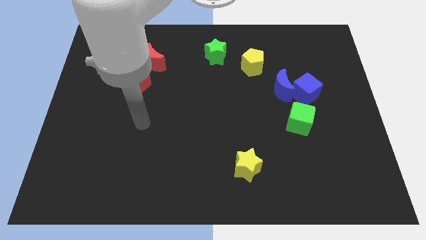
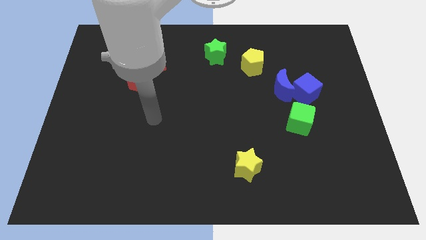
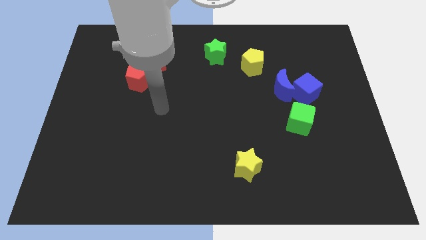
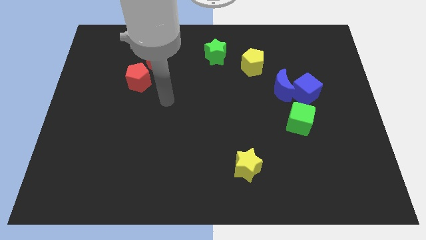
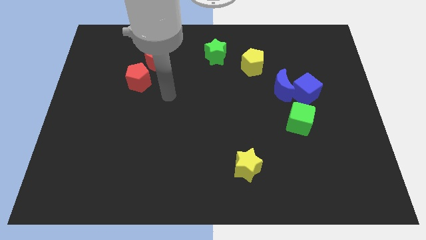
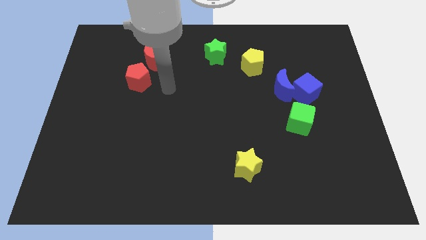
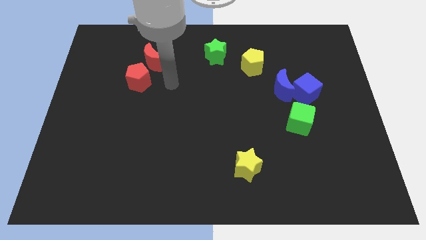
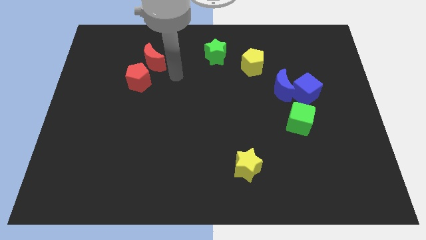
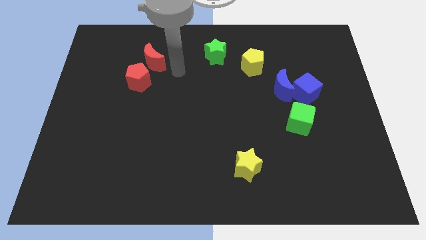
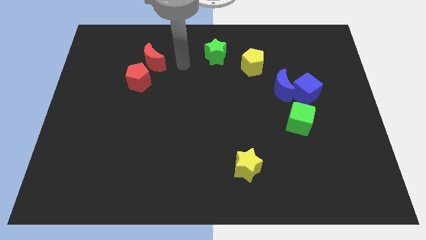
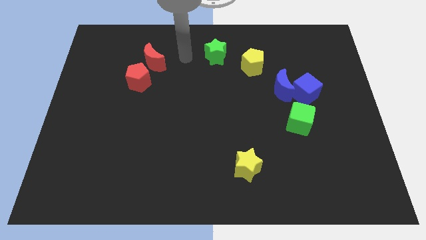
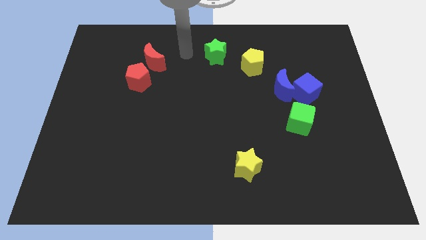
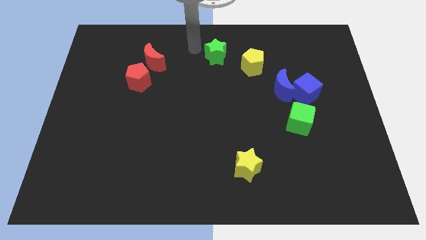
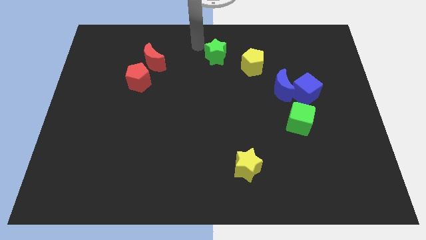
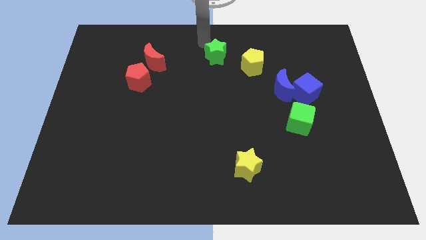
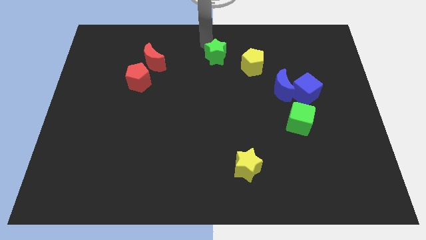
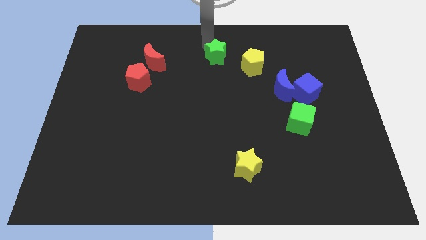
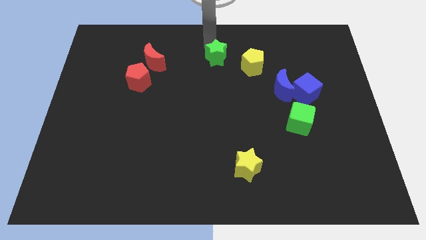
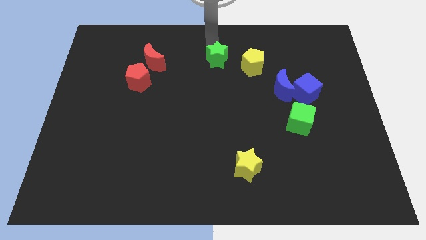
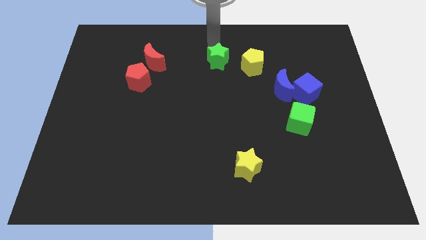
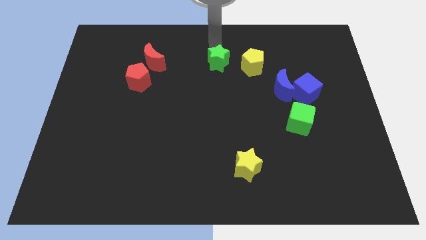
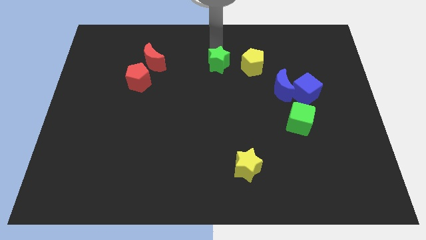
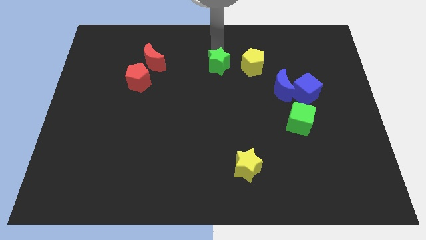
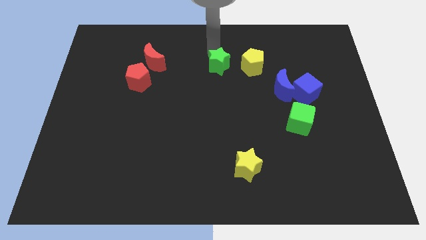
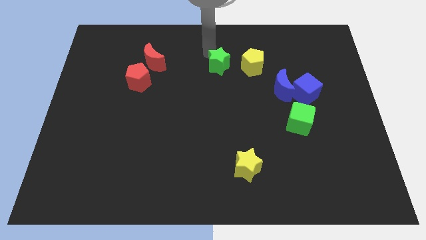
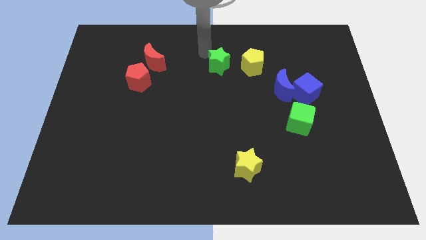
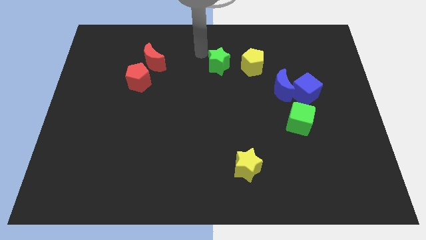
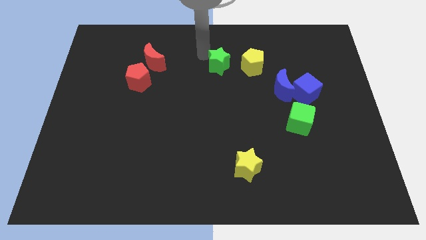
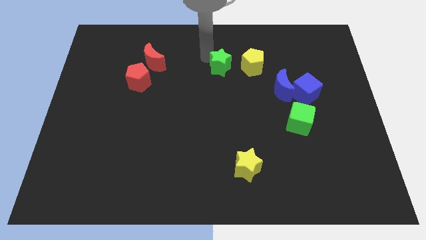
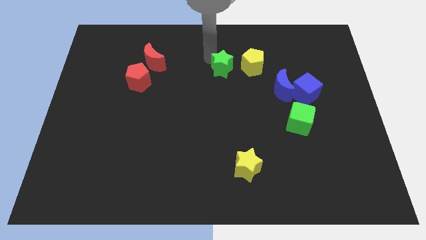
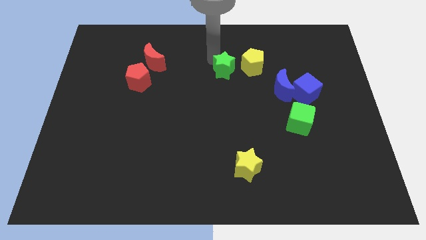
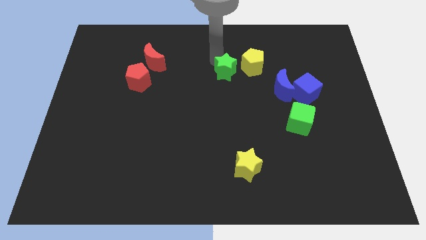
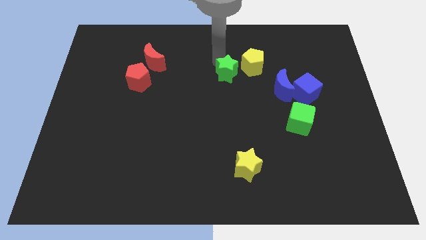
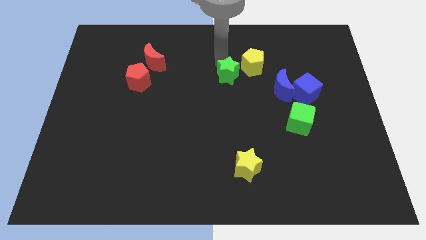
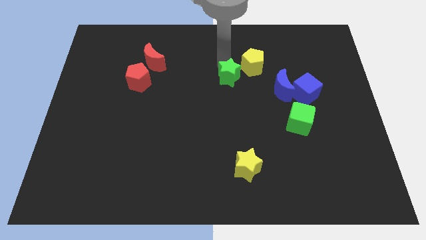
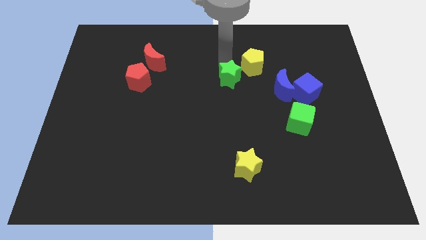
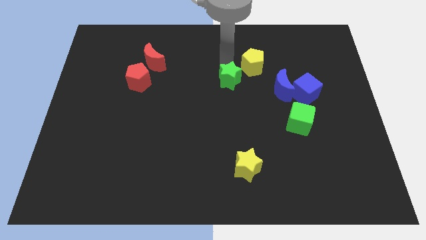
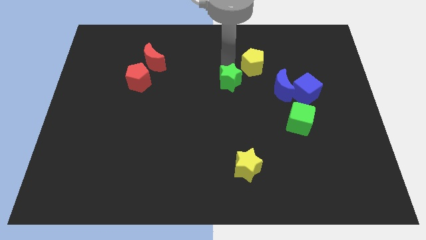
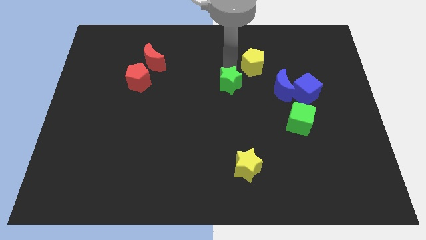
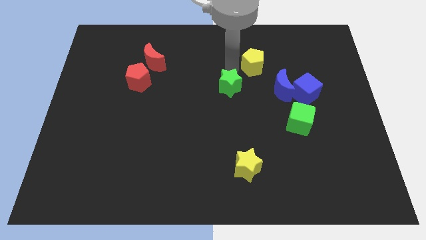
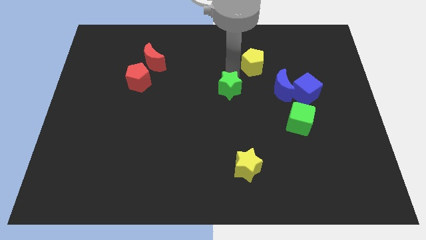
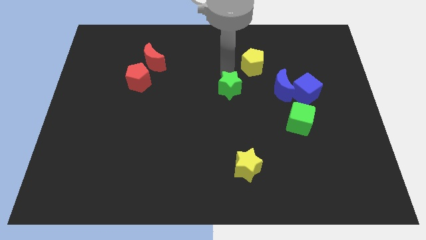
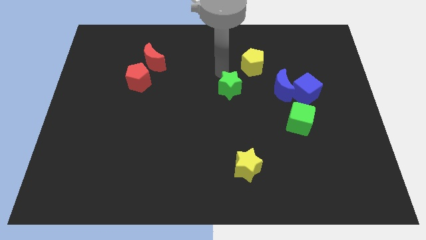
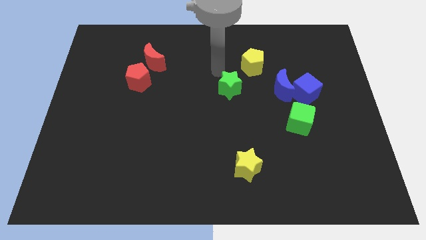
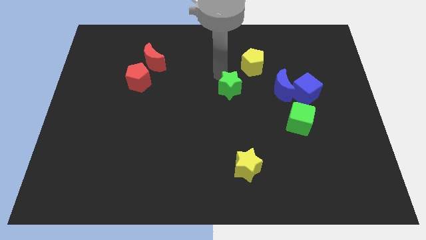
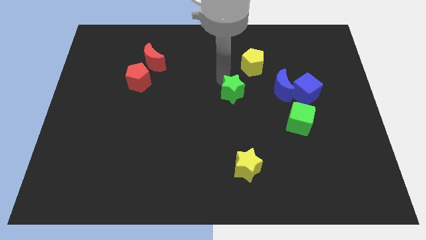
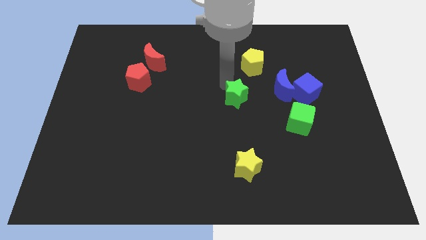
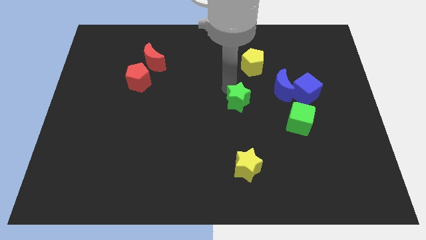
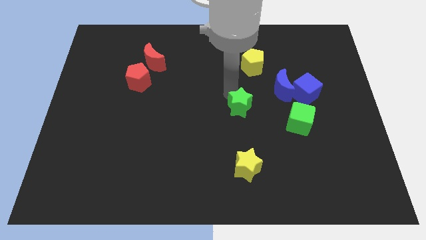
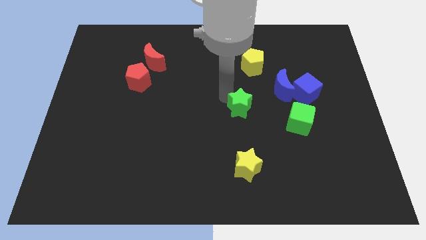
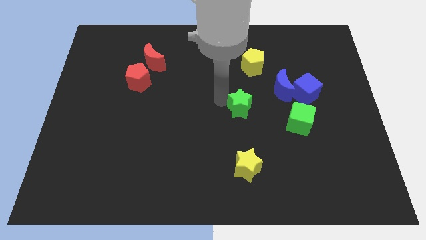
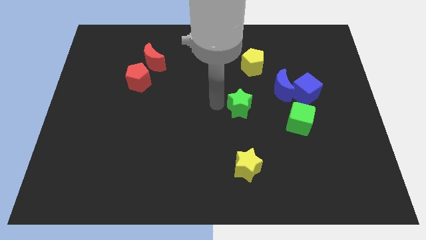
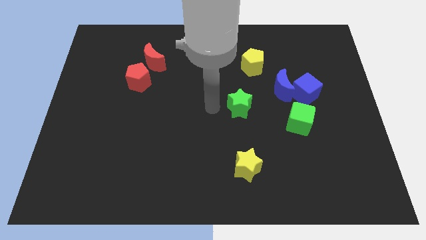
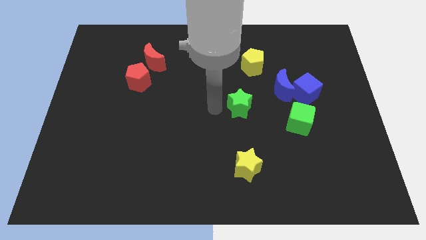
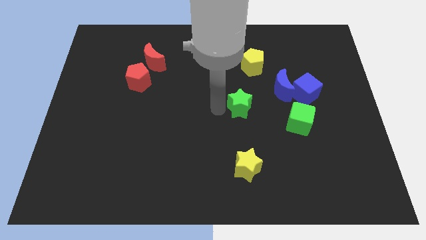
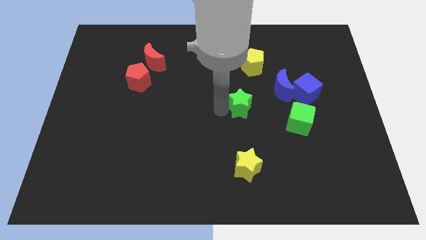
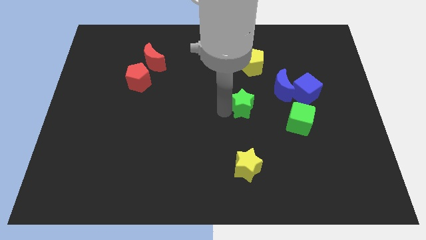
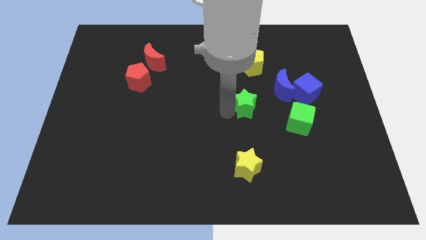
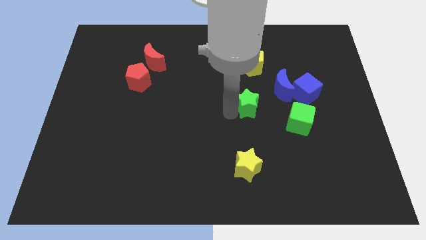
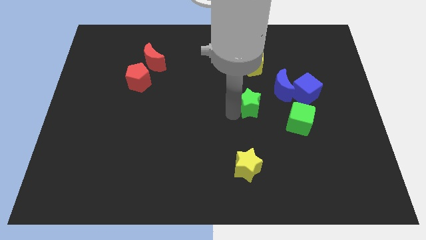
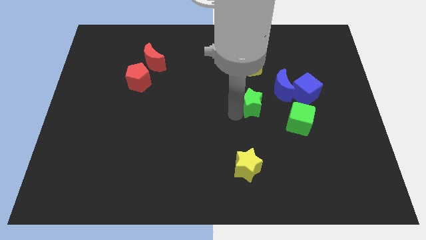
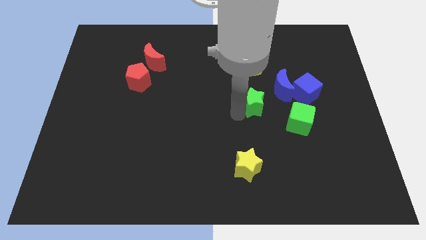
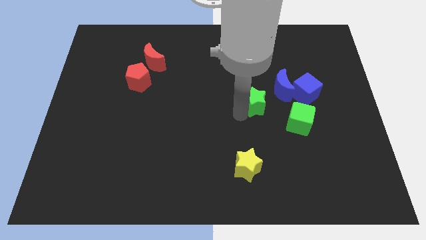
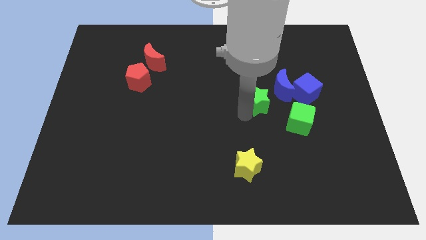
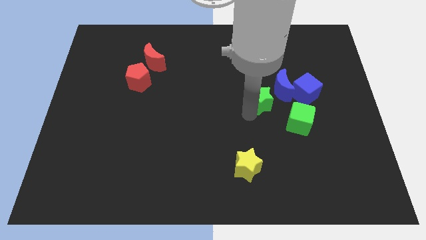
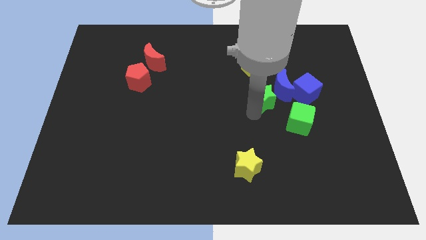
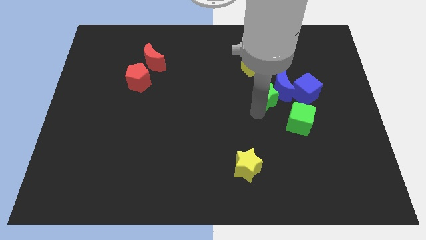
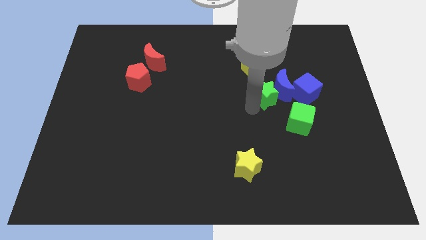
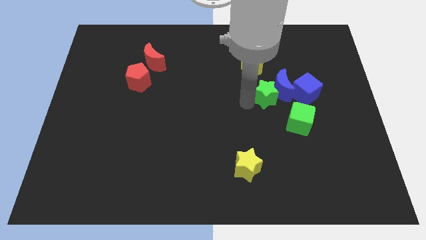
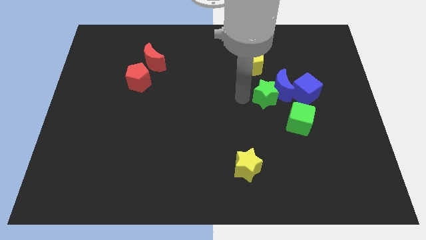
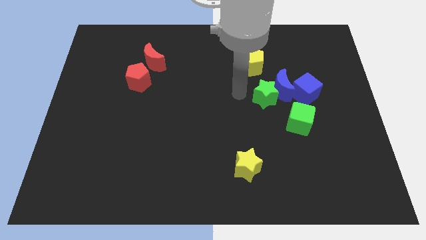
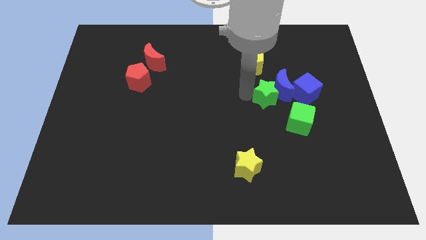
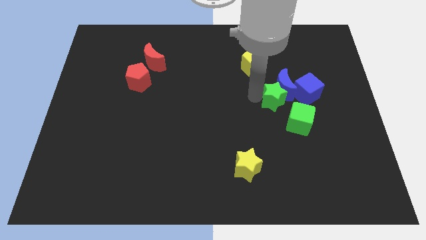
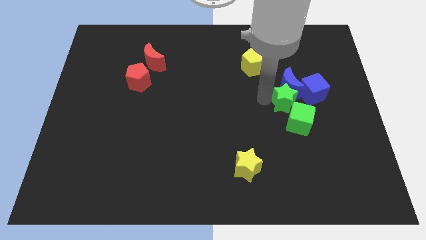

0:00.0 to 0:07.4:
push the green star diagonally down and to the right of the blue moon
